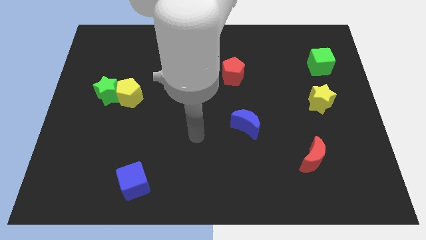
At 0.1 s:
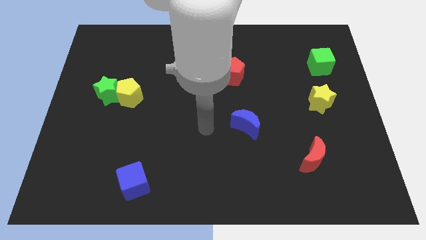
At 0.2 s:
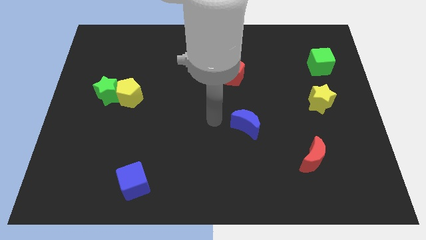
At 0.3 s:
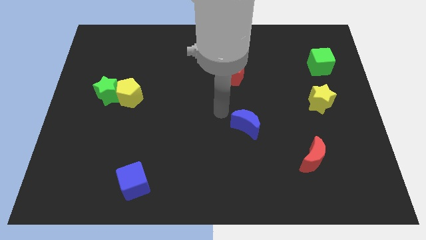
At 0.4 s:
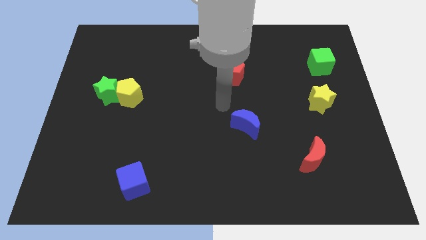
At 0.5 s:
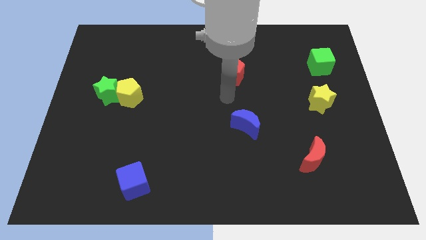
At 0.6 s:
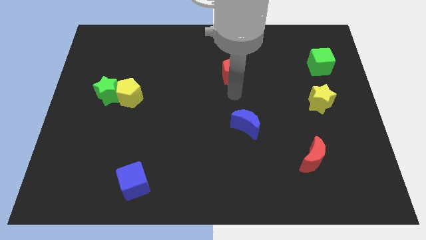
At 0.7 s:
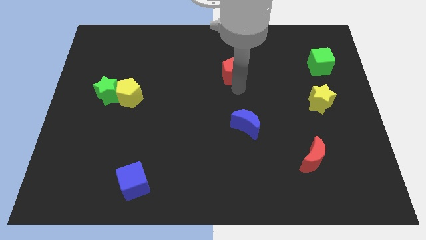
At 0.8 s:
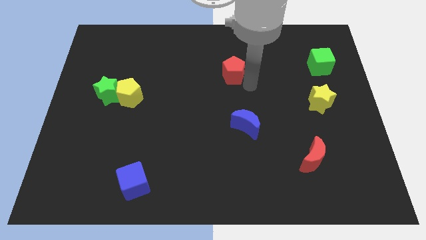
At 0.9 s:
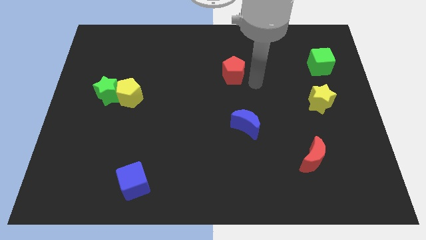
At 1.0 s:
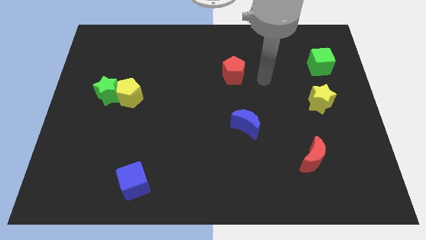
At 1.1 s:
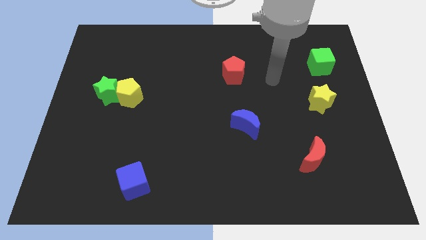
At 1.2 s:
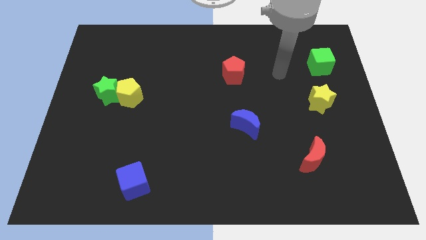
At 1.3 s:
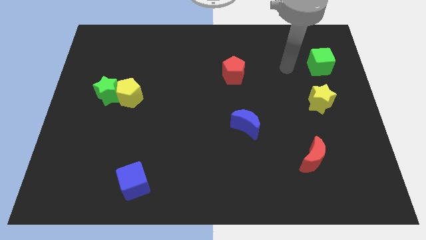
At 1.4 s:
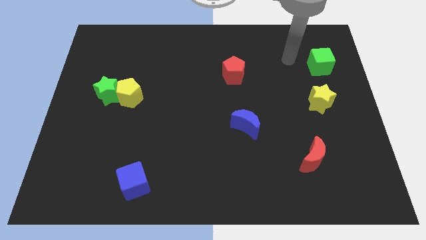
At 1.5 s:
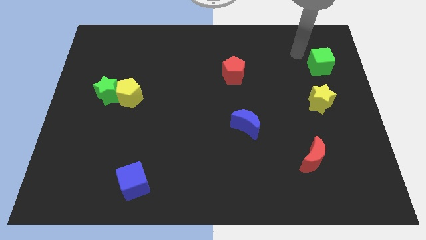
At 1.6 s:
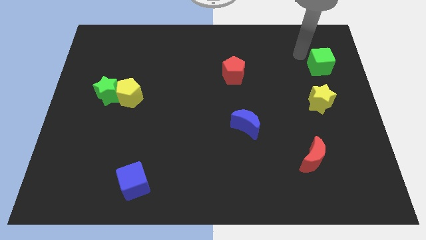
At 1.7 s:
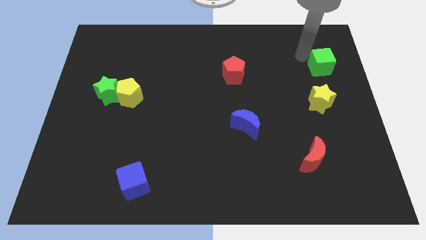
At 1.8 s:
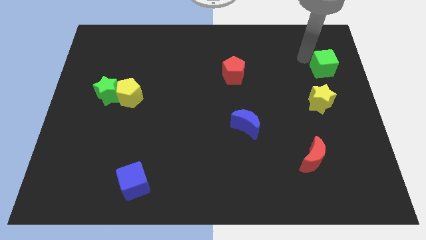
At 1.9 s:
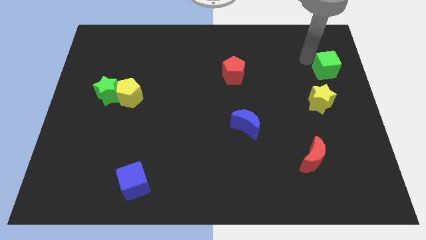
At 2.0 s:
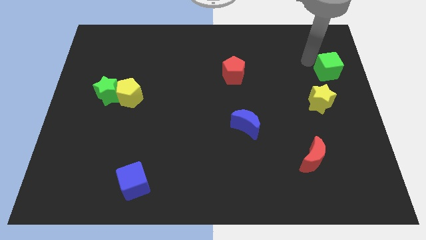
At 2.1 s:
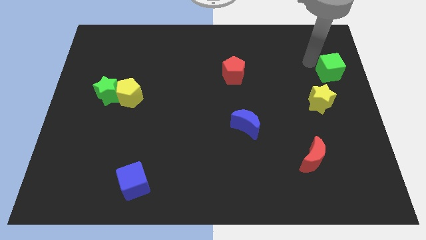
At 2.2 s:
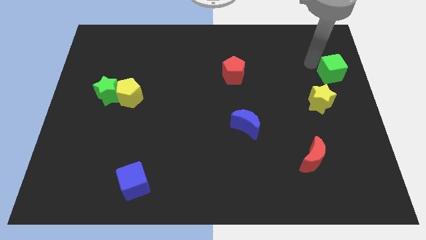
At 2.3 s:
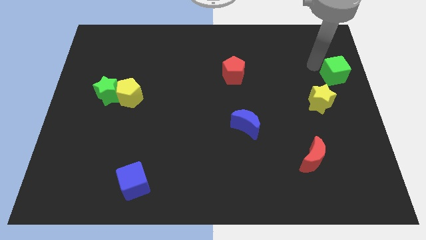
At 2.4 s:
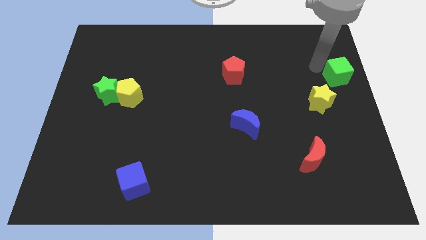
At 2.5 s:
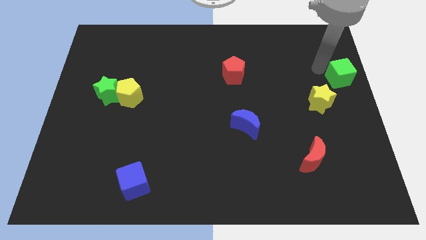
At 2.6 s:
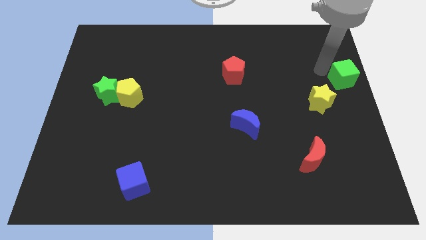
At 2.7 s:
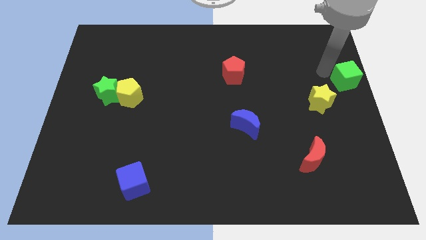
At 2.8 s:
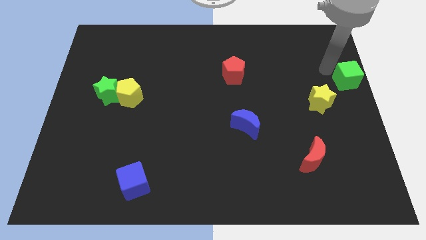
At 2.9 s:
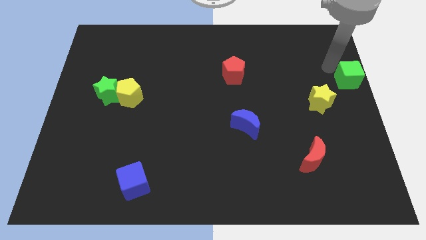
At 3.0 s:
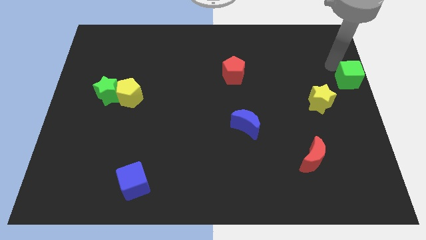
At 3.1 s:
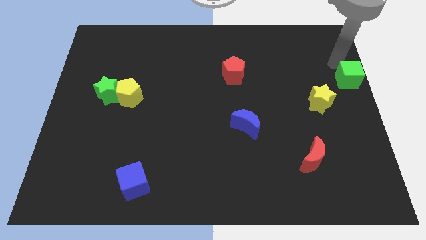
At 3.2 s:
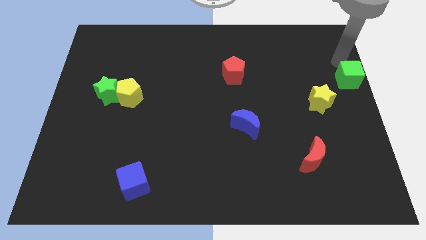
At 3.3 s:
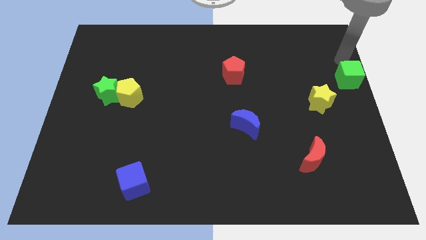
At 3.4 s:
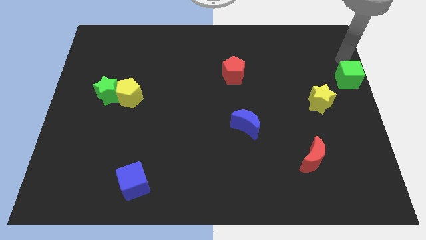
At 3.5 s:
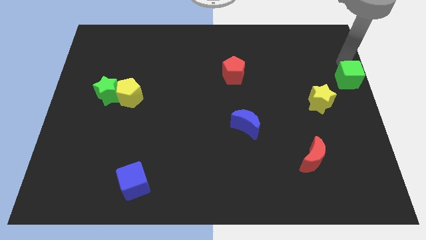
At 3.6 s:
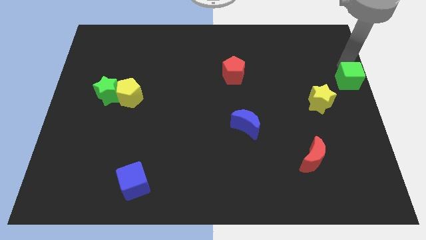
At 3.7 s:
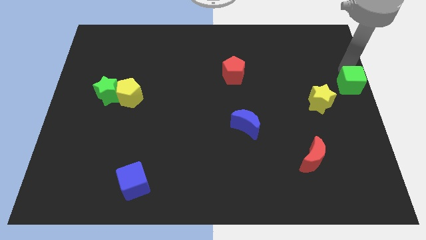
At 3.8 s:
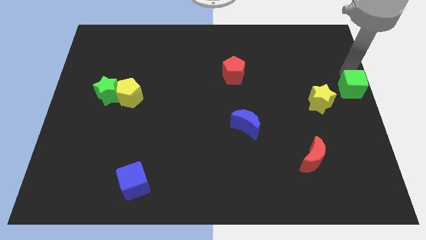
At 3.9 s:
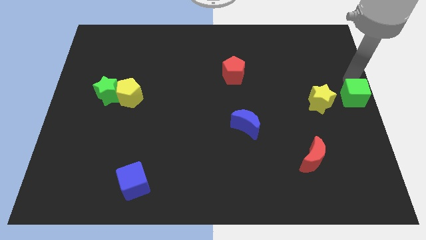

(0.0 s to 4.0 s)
push the green cube down a bit

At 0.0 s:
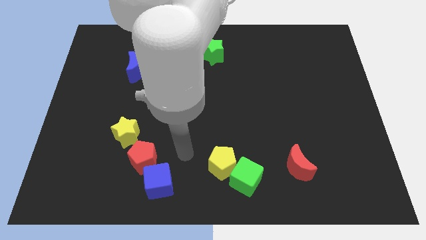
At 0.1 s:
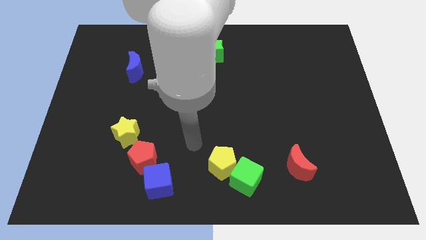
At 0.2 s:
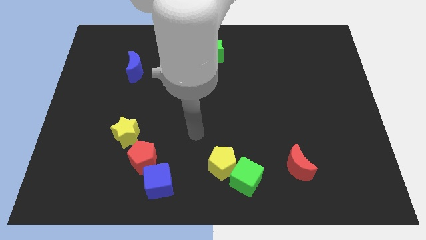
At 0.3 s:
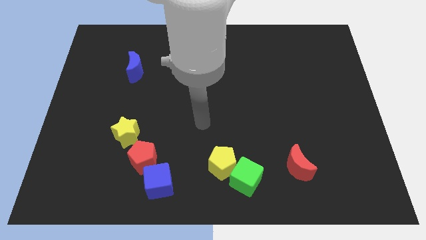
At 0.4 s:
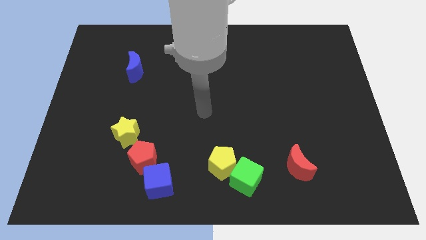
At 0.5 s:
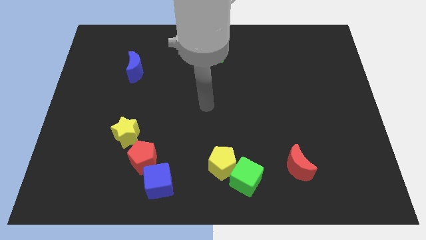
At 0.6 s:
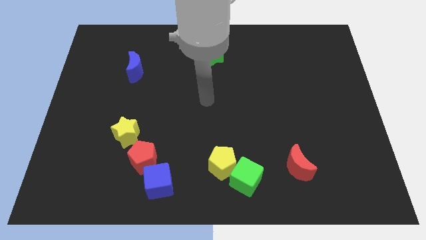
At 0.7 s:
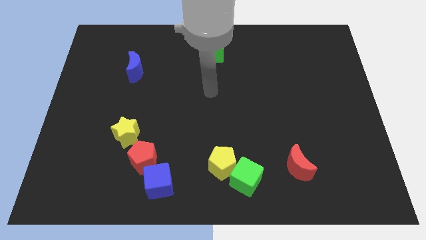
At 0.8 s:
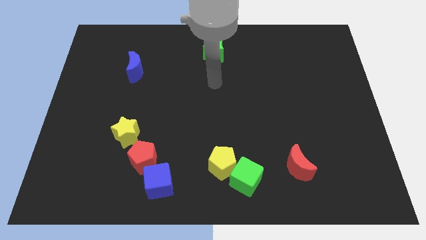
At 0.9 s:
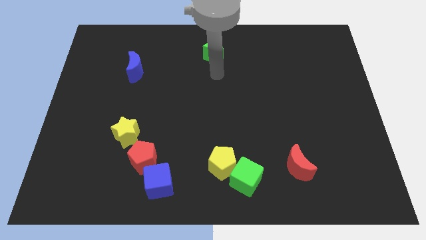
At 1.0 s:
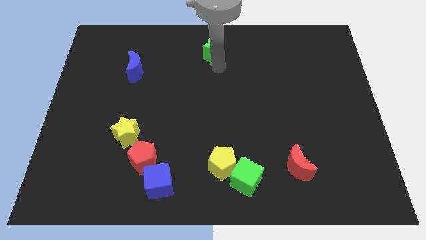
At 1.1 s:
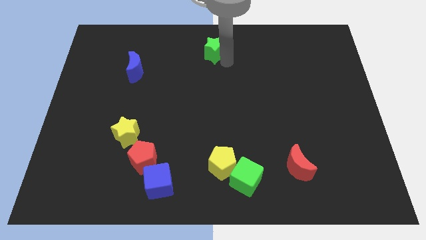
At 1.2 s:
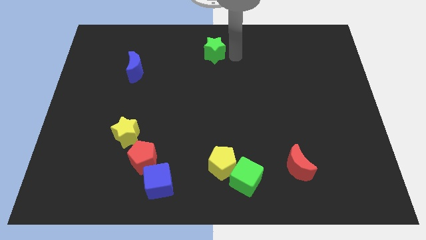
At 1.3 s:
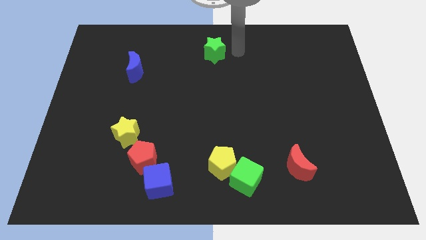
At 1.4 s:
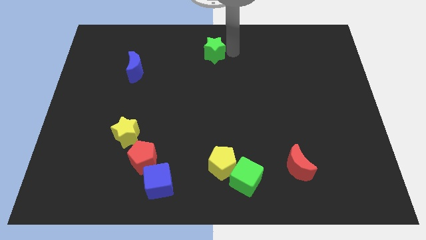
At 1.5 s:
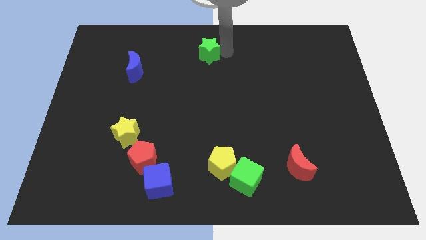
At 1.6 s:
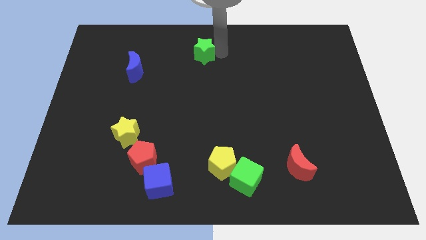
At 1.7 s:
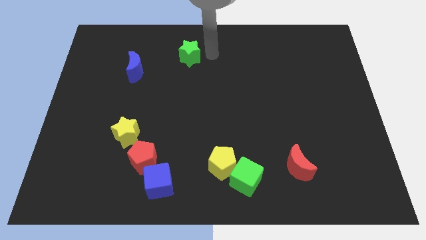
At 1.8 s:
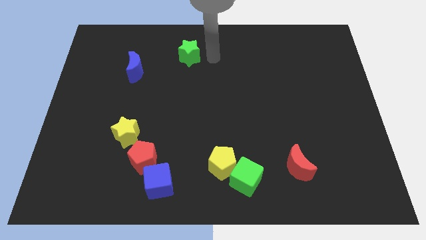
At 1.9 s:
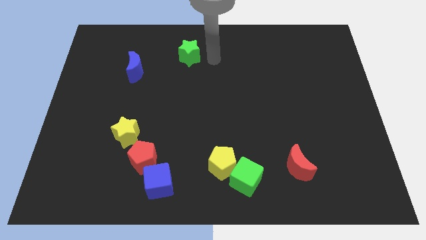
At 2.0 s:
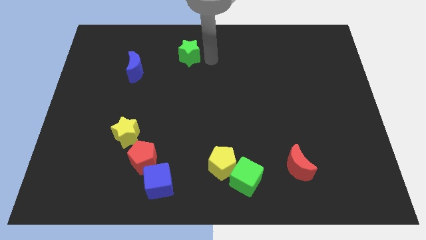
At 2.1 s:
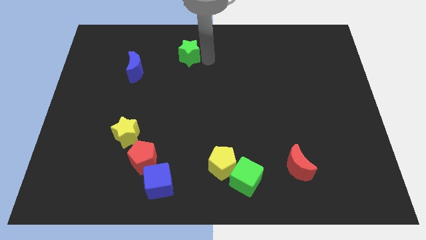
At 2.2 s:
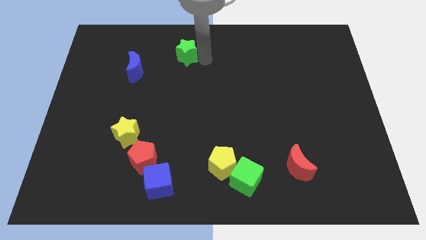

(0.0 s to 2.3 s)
slightly move the green star left

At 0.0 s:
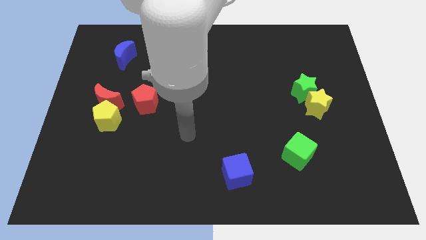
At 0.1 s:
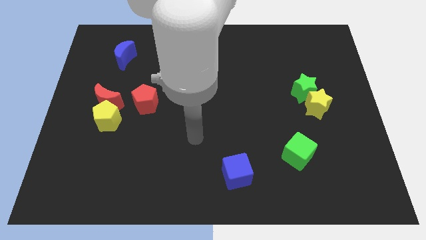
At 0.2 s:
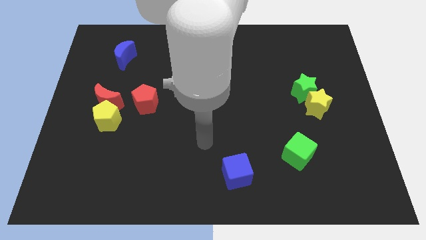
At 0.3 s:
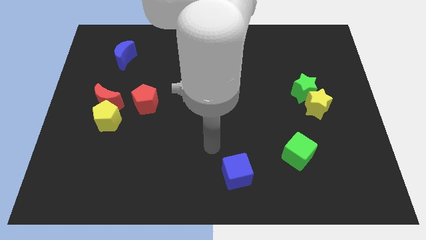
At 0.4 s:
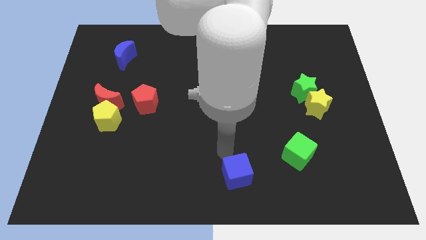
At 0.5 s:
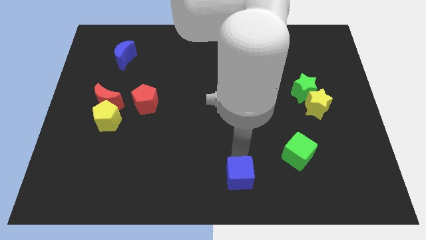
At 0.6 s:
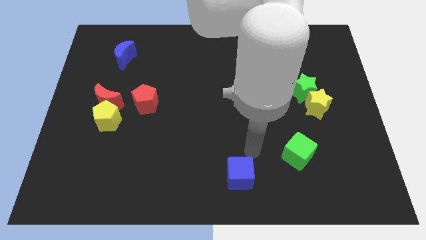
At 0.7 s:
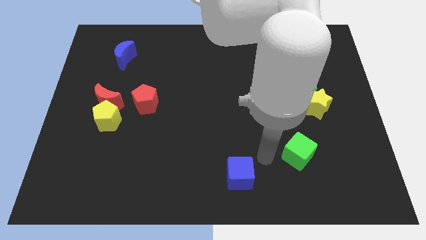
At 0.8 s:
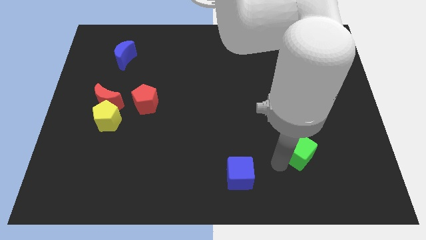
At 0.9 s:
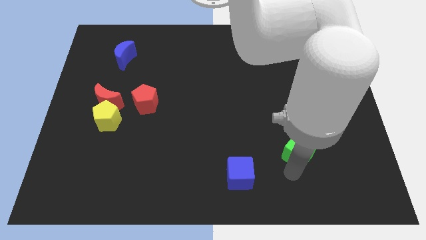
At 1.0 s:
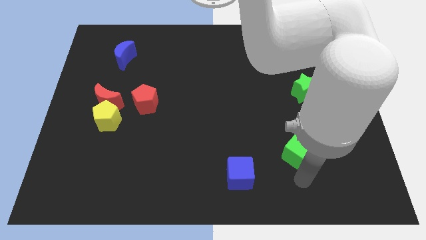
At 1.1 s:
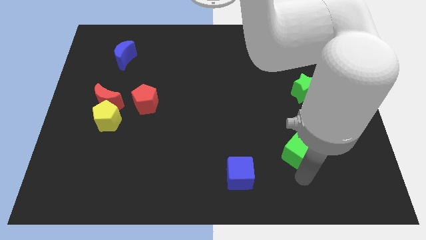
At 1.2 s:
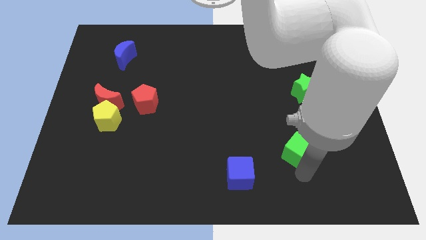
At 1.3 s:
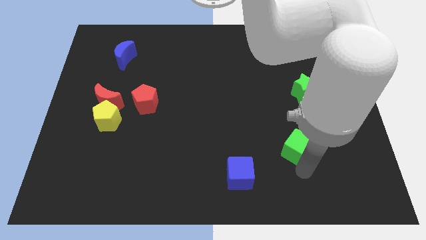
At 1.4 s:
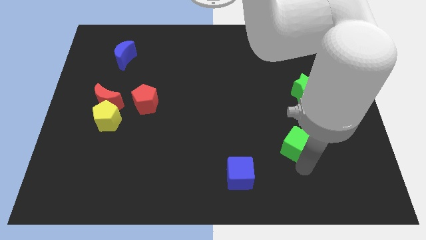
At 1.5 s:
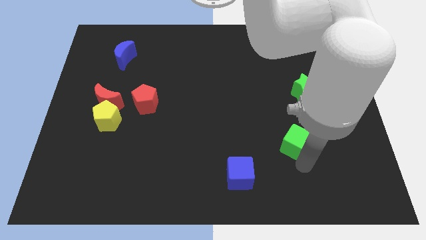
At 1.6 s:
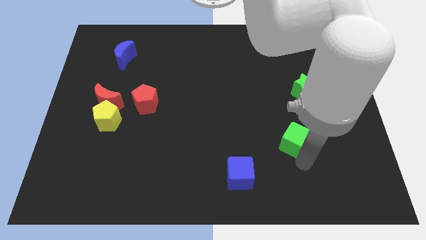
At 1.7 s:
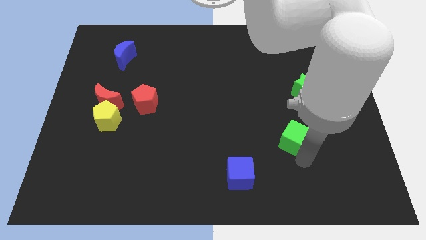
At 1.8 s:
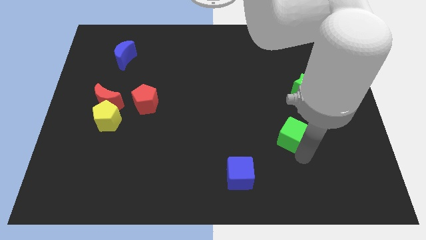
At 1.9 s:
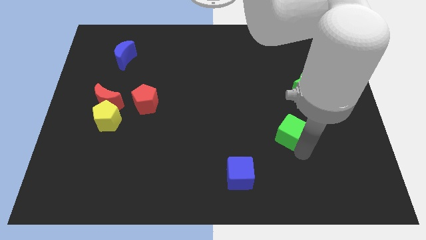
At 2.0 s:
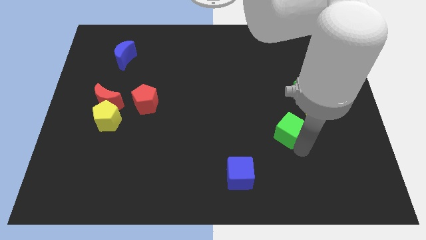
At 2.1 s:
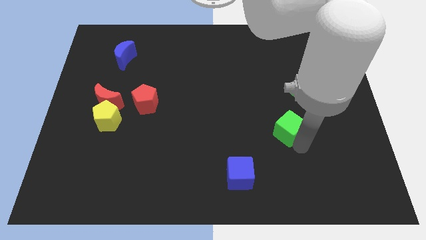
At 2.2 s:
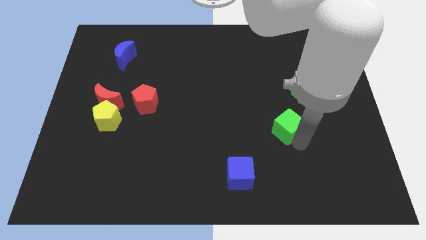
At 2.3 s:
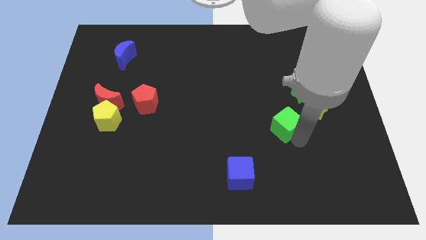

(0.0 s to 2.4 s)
push the green cube a little upwards
